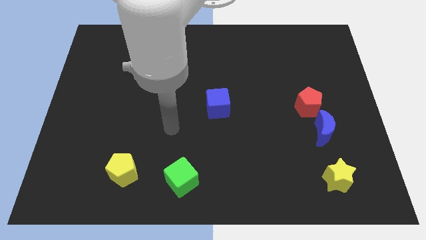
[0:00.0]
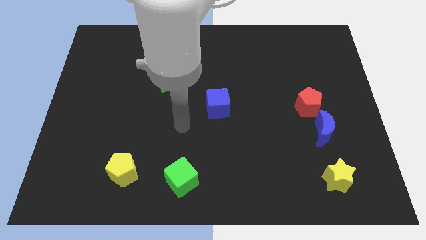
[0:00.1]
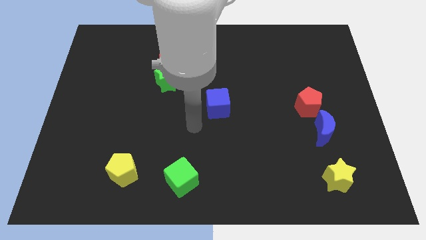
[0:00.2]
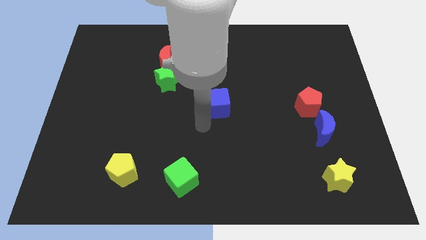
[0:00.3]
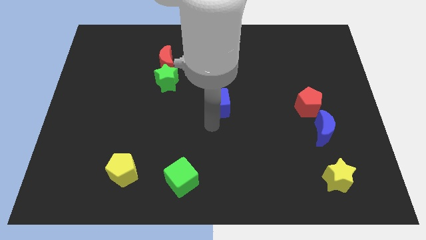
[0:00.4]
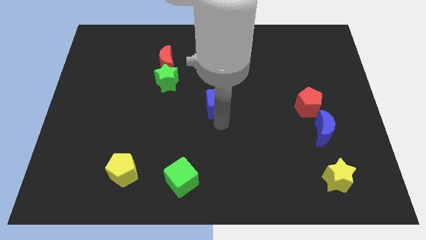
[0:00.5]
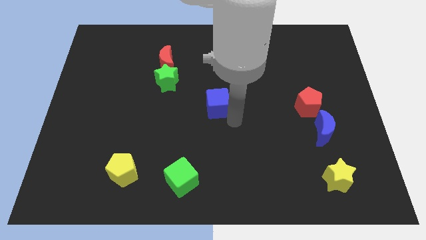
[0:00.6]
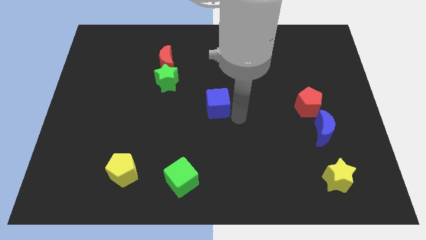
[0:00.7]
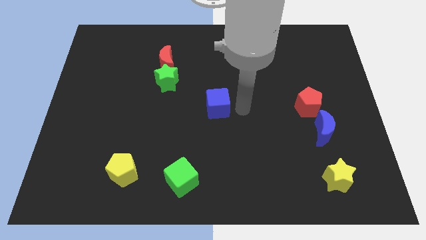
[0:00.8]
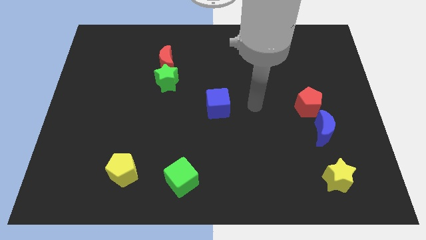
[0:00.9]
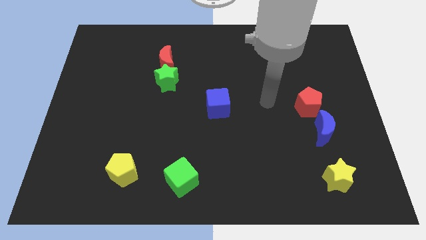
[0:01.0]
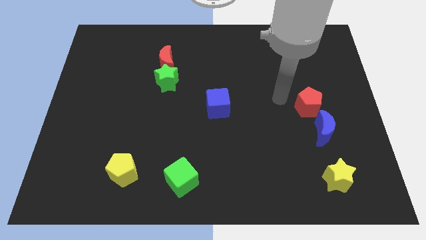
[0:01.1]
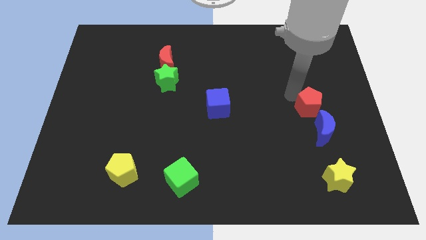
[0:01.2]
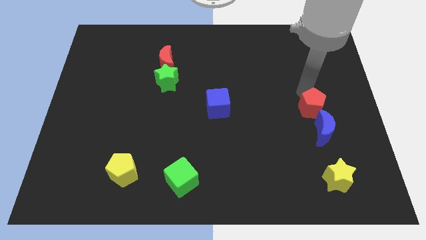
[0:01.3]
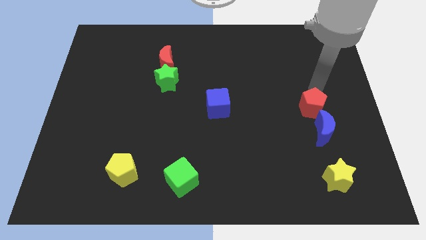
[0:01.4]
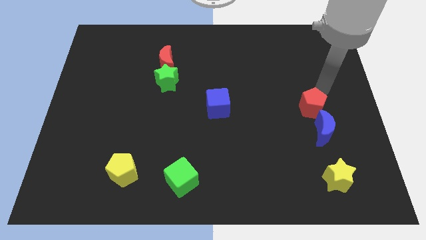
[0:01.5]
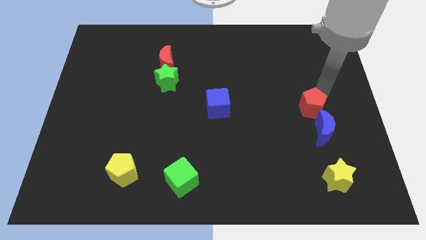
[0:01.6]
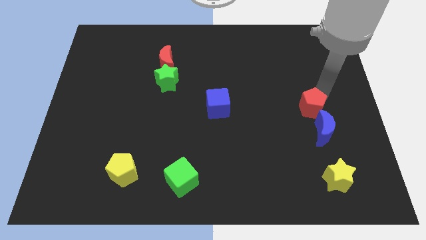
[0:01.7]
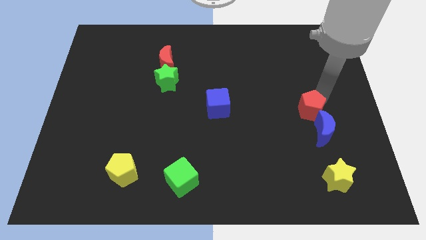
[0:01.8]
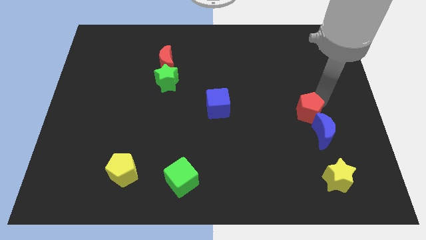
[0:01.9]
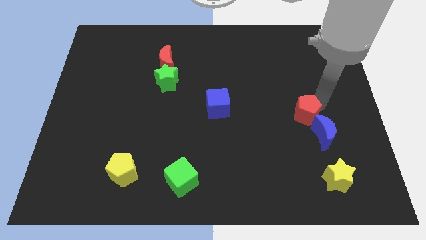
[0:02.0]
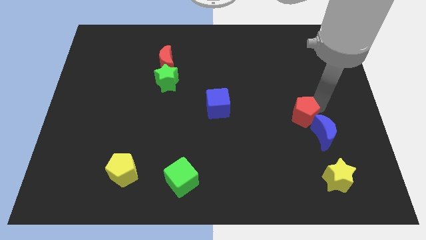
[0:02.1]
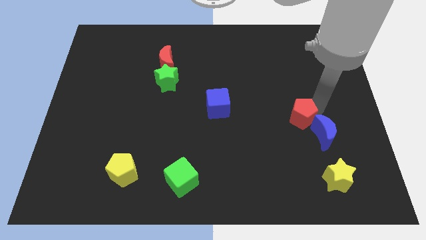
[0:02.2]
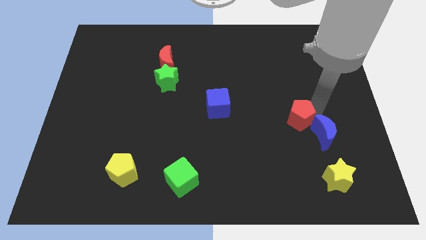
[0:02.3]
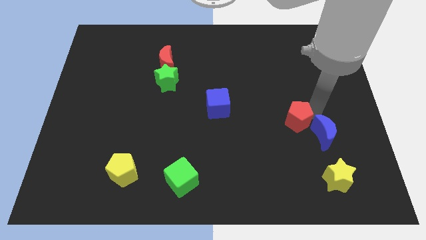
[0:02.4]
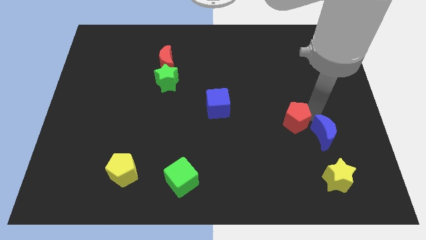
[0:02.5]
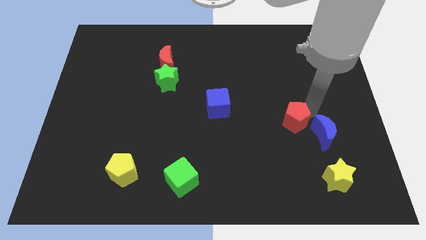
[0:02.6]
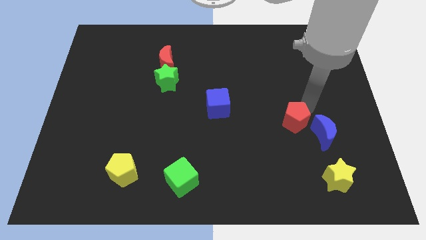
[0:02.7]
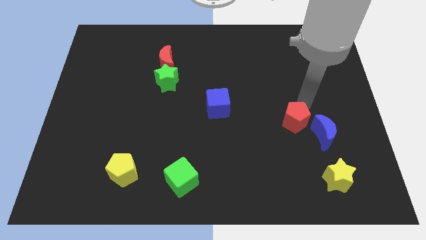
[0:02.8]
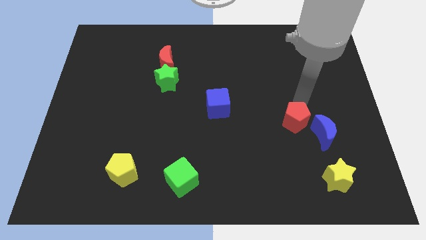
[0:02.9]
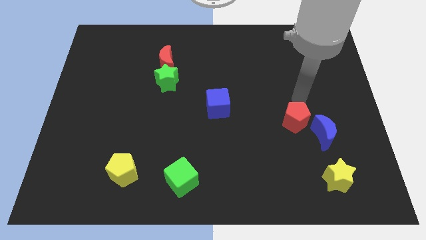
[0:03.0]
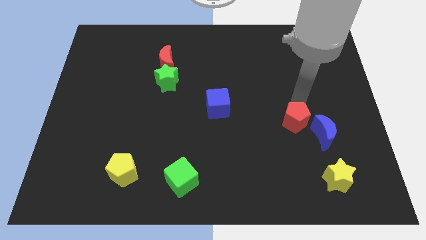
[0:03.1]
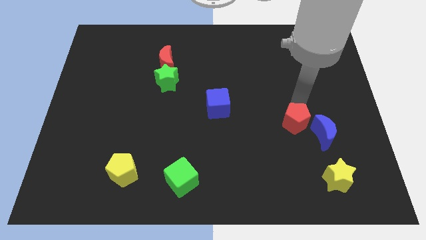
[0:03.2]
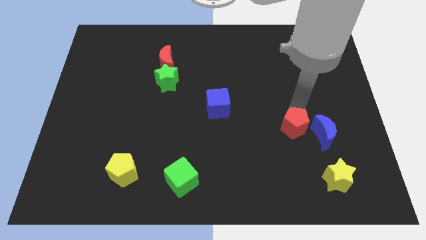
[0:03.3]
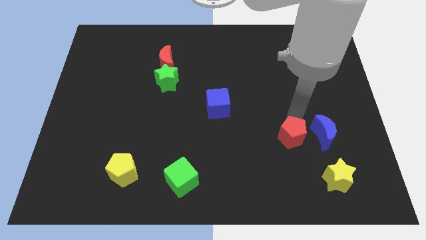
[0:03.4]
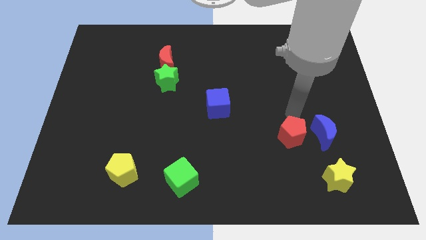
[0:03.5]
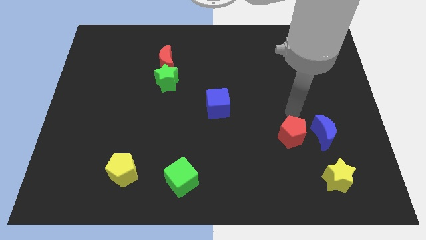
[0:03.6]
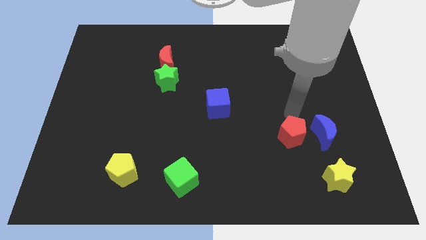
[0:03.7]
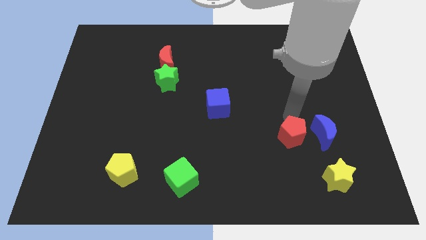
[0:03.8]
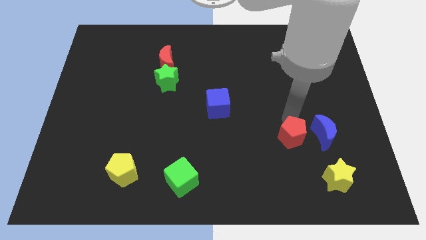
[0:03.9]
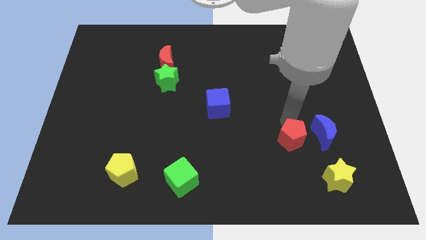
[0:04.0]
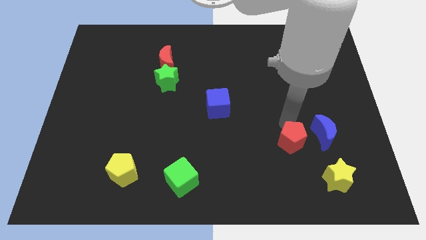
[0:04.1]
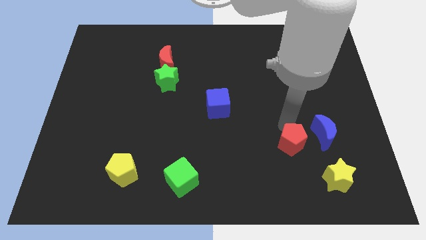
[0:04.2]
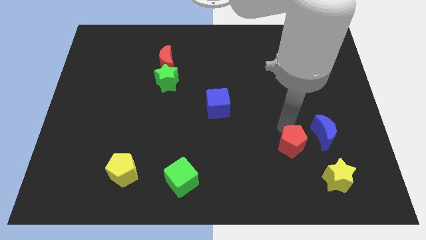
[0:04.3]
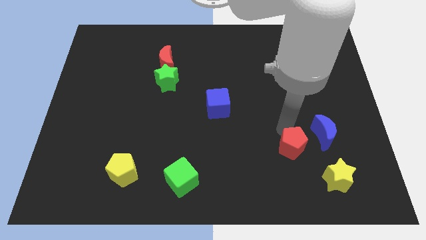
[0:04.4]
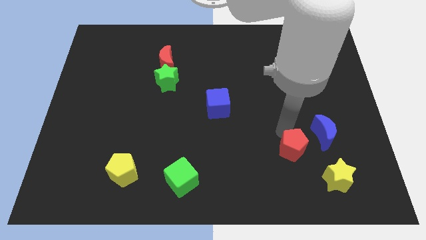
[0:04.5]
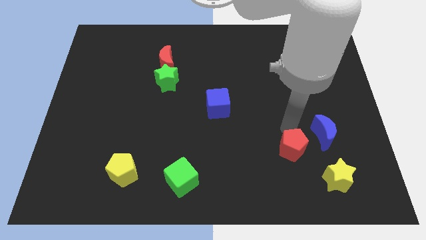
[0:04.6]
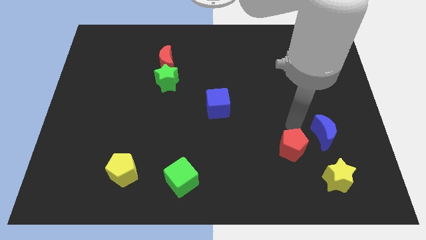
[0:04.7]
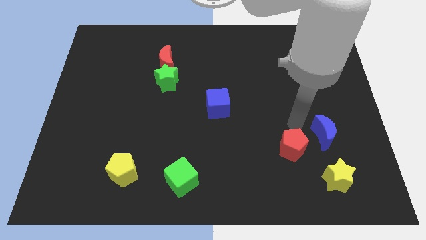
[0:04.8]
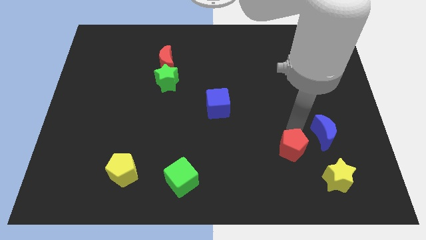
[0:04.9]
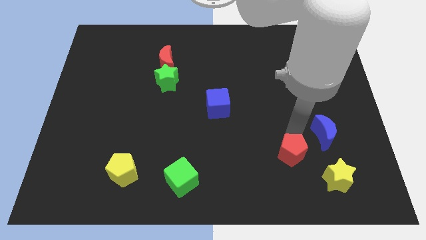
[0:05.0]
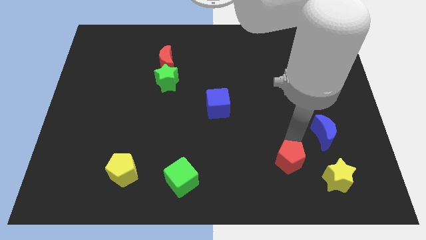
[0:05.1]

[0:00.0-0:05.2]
move the red pentagon to the left side of the yellow star

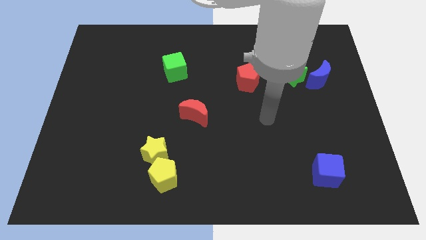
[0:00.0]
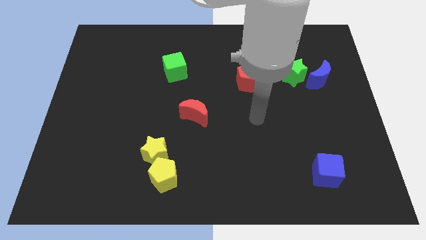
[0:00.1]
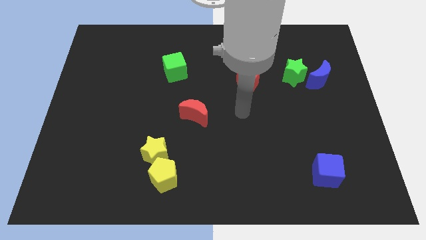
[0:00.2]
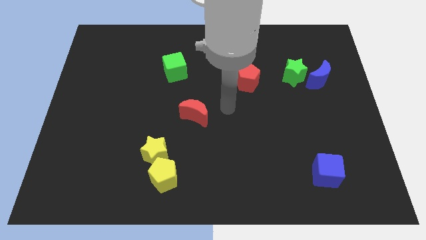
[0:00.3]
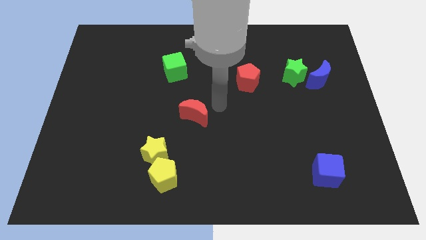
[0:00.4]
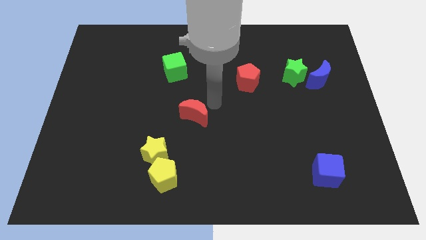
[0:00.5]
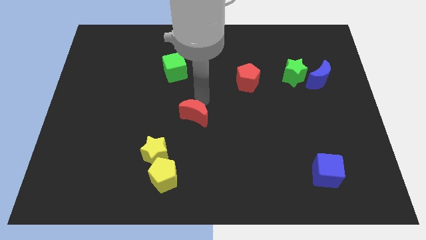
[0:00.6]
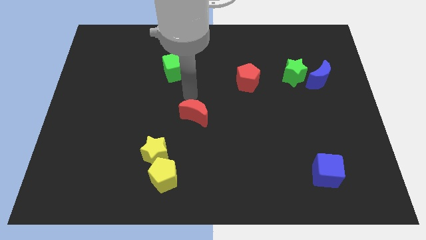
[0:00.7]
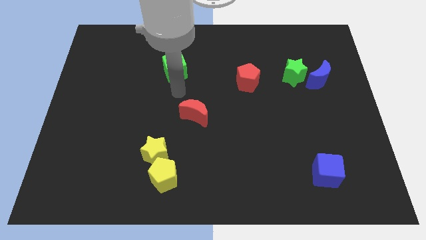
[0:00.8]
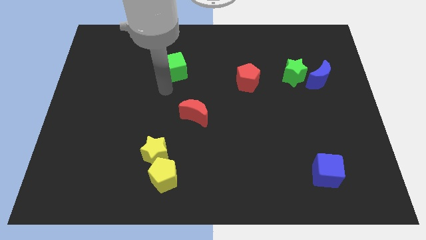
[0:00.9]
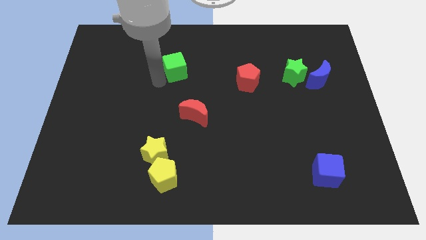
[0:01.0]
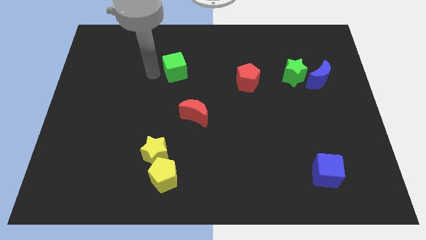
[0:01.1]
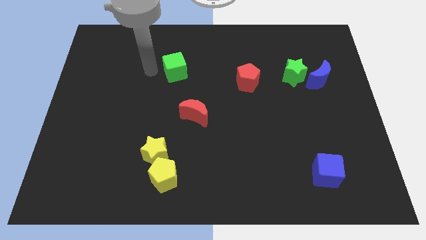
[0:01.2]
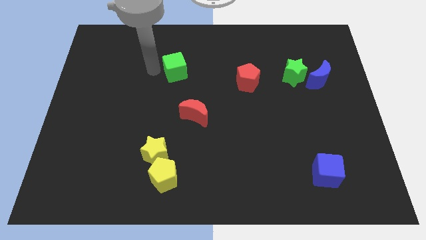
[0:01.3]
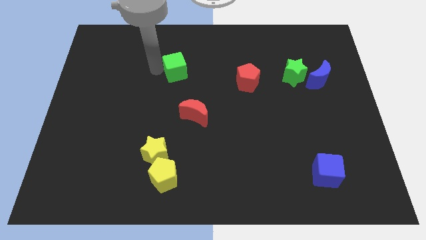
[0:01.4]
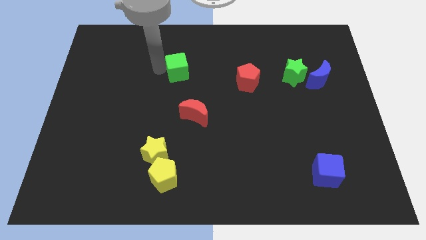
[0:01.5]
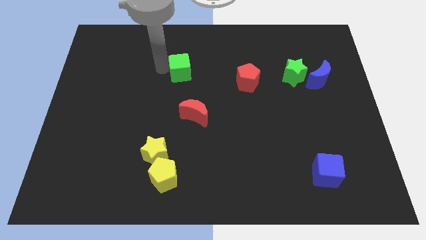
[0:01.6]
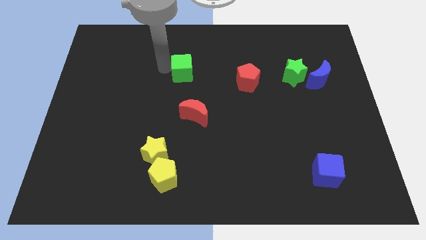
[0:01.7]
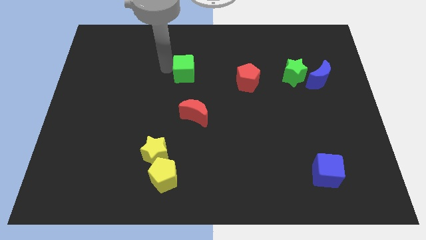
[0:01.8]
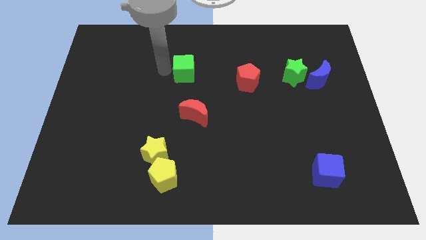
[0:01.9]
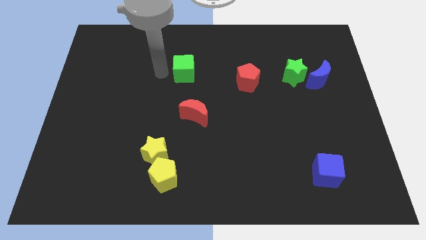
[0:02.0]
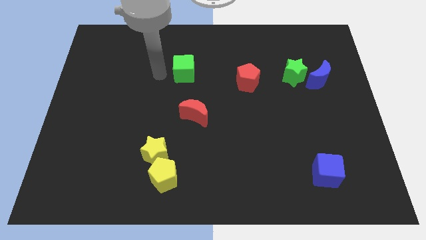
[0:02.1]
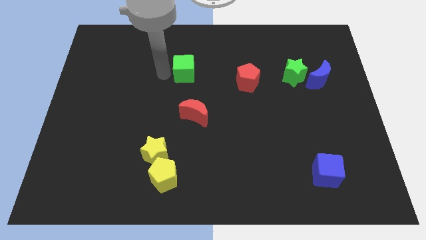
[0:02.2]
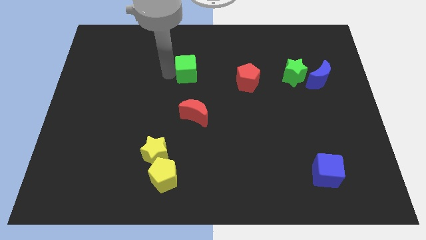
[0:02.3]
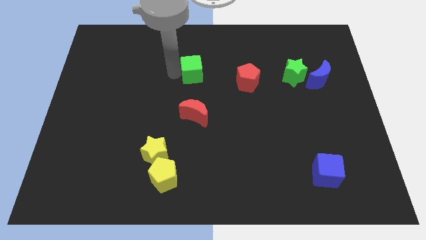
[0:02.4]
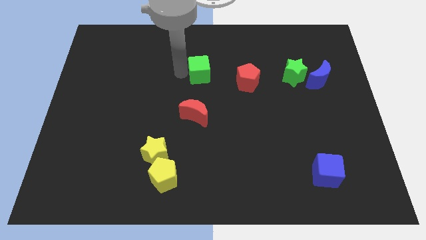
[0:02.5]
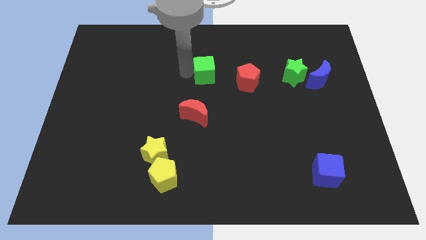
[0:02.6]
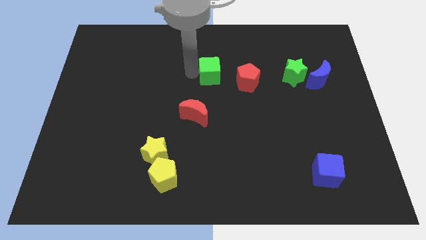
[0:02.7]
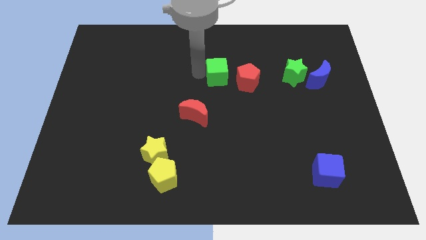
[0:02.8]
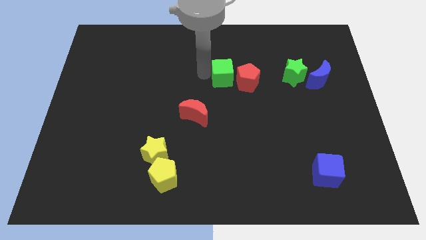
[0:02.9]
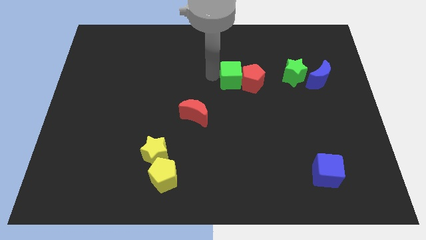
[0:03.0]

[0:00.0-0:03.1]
push the green cube just left of the green star
